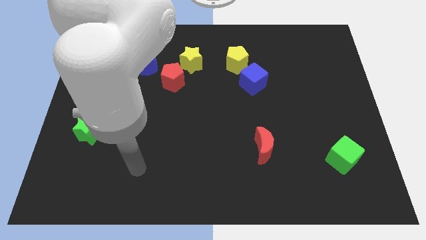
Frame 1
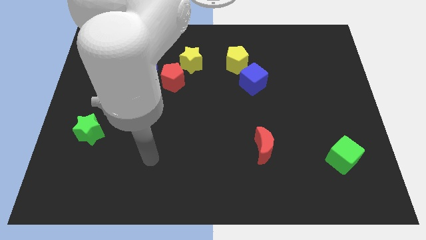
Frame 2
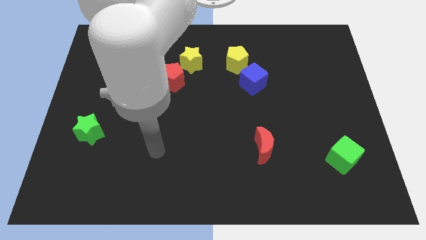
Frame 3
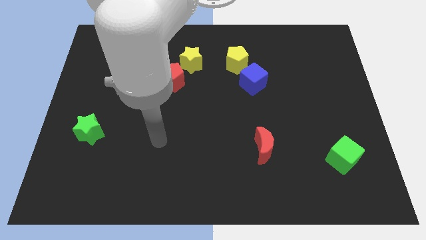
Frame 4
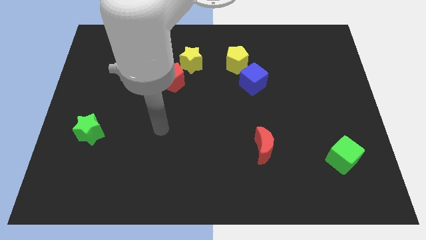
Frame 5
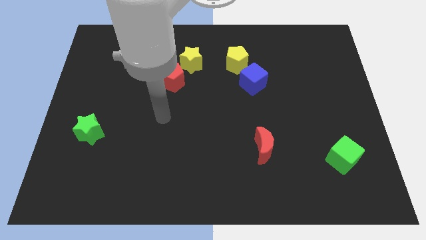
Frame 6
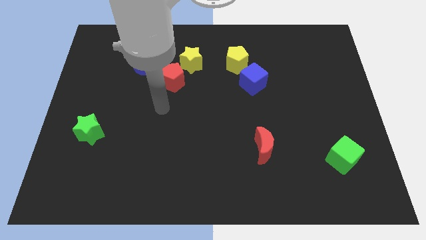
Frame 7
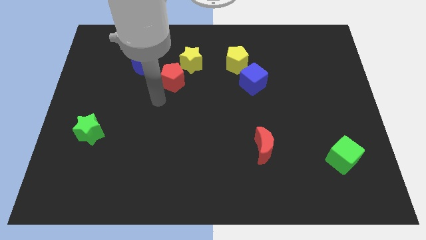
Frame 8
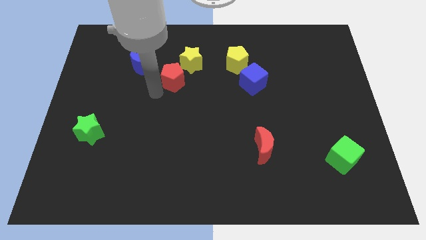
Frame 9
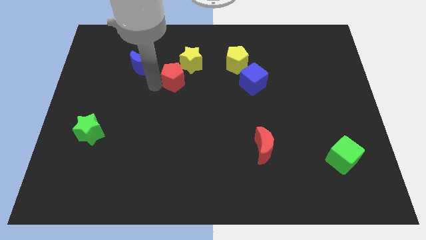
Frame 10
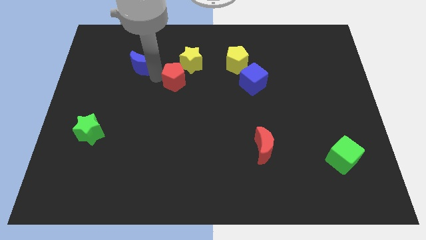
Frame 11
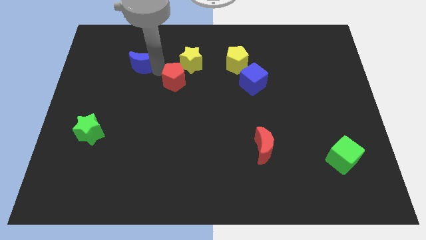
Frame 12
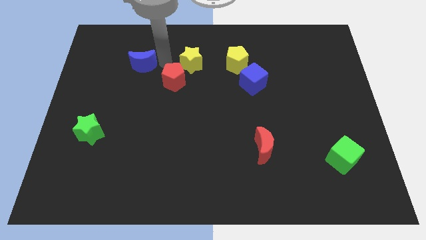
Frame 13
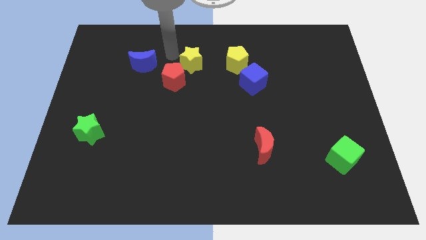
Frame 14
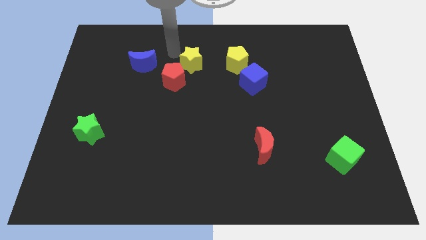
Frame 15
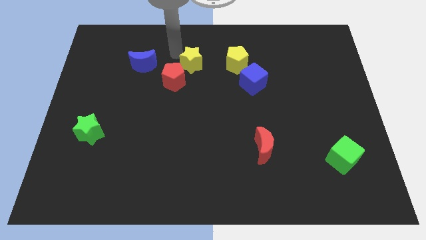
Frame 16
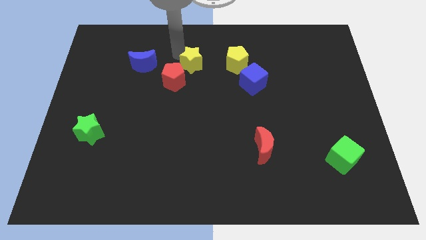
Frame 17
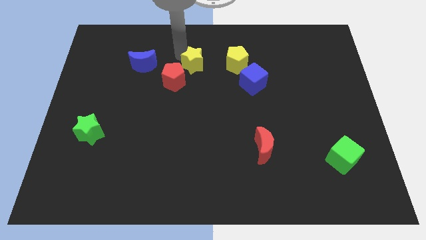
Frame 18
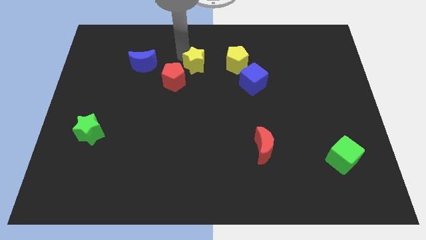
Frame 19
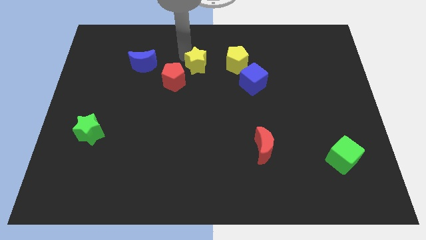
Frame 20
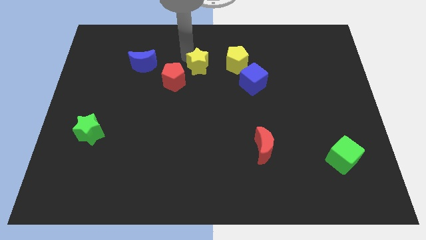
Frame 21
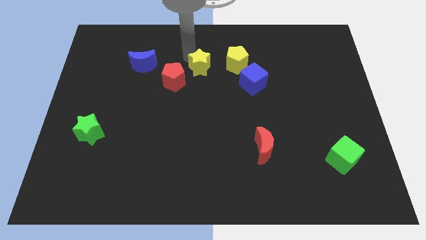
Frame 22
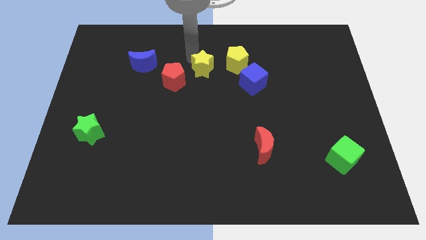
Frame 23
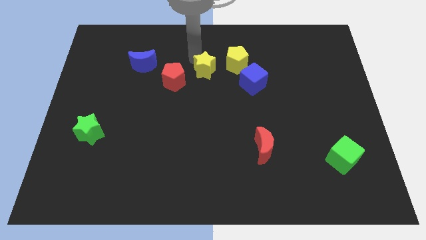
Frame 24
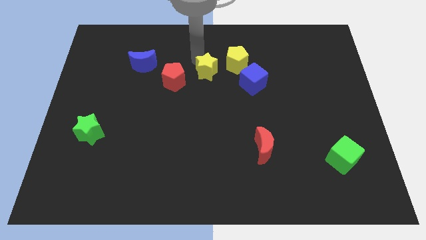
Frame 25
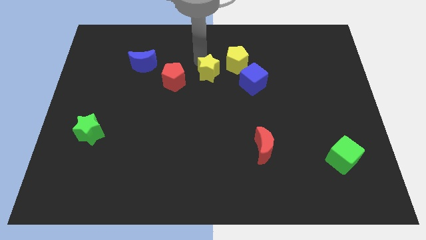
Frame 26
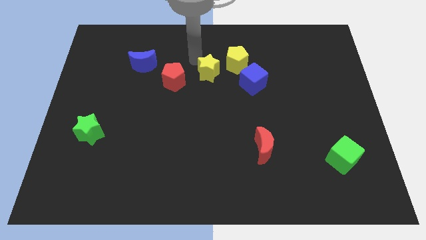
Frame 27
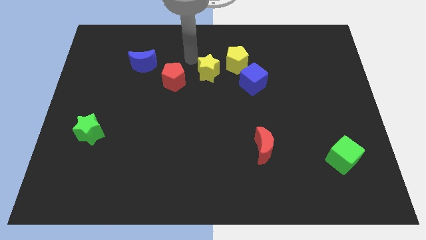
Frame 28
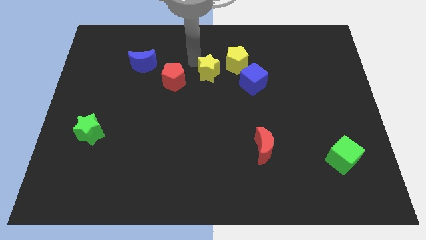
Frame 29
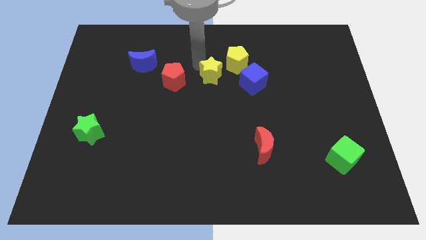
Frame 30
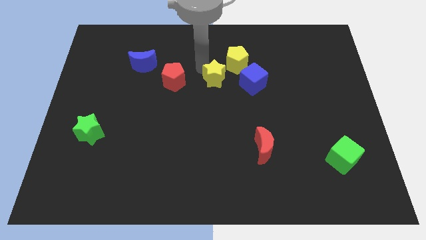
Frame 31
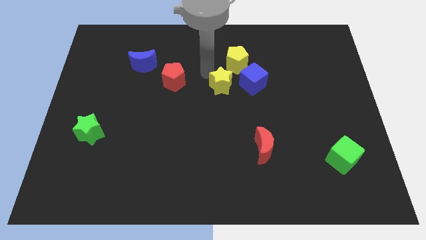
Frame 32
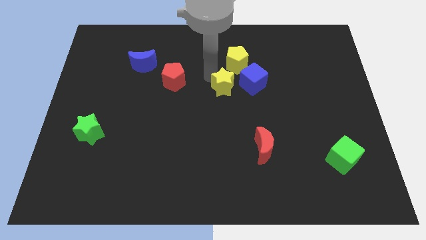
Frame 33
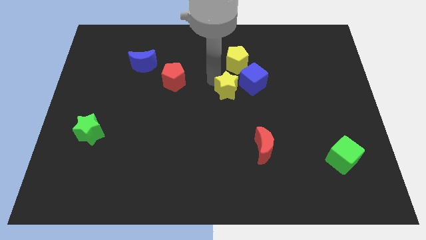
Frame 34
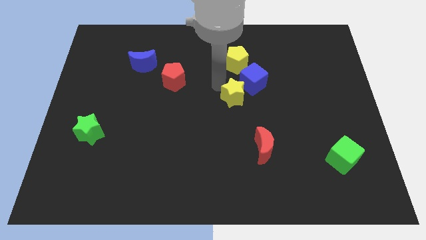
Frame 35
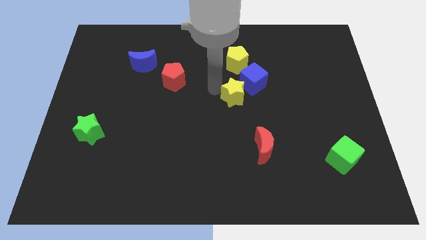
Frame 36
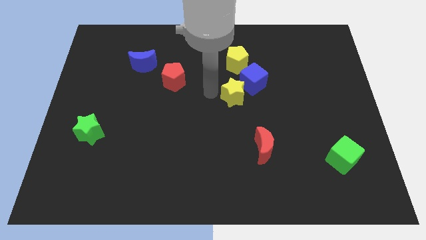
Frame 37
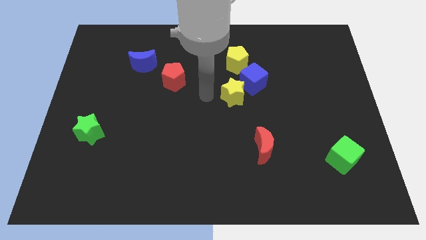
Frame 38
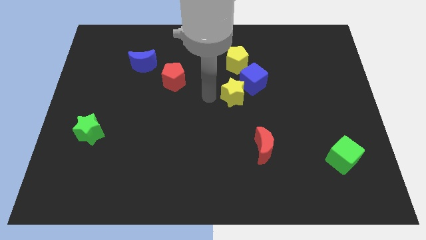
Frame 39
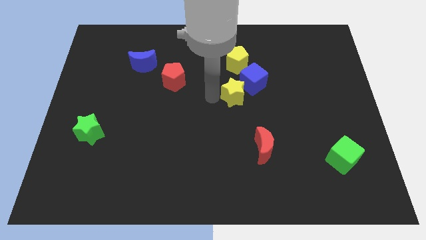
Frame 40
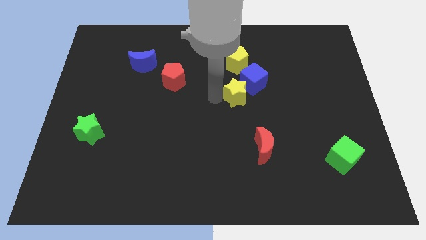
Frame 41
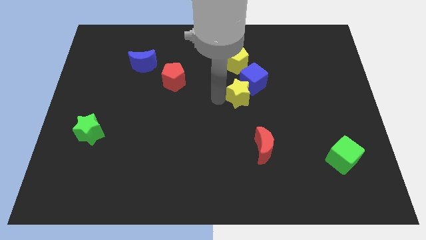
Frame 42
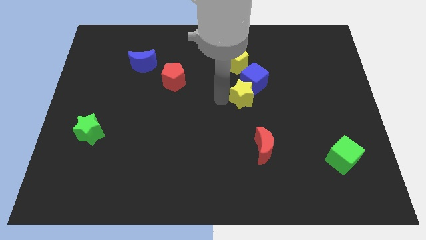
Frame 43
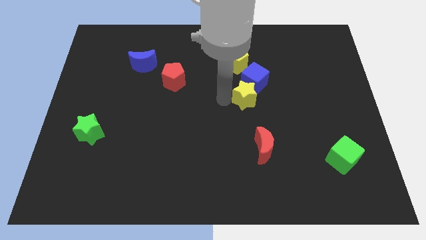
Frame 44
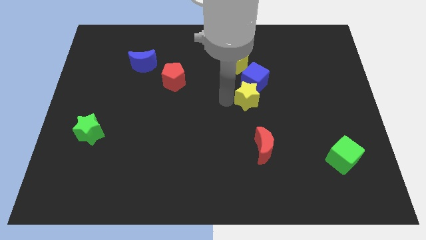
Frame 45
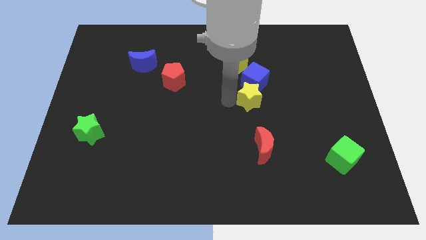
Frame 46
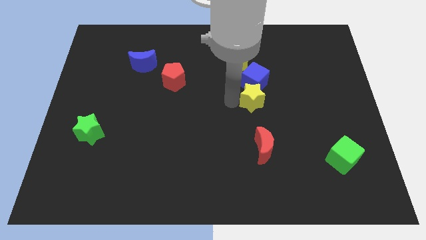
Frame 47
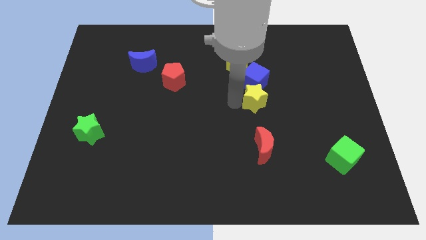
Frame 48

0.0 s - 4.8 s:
slide the yellow star to the bottom right side of the blue cube

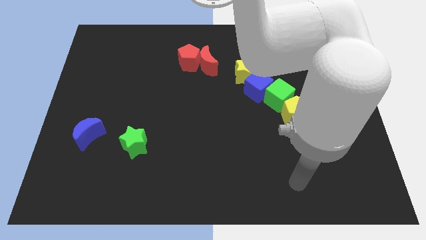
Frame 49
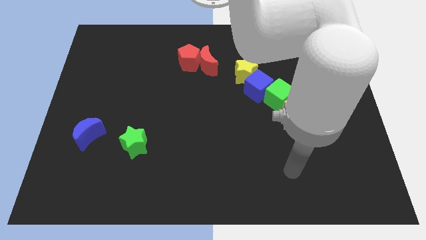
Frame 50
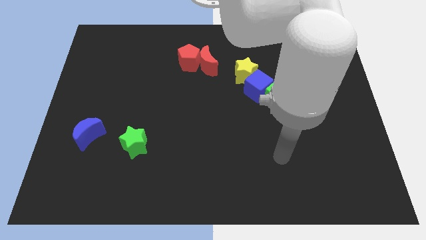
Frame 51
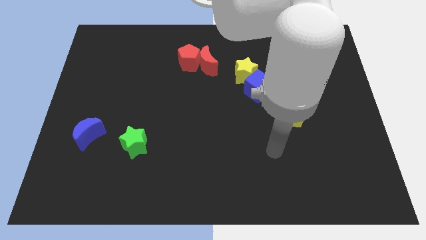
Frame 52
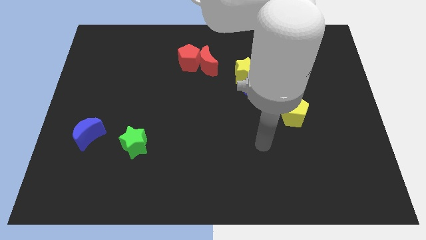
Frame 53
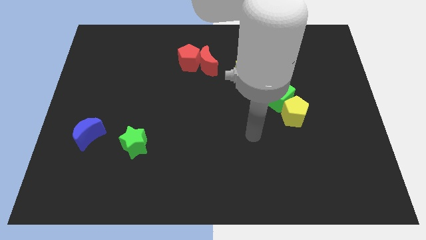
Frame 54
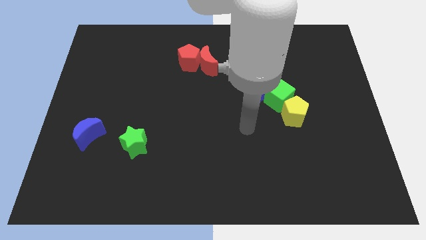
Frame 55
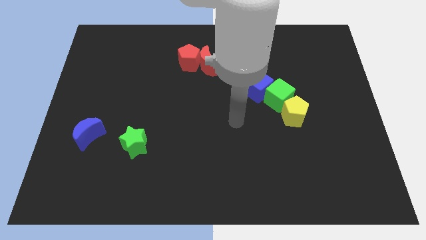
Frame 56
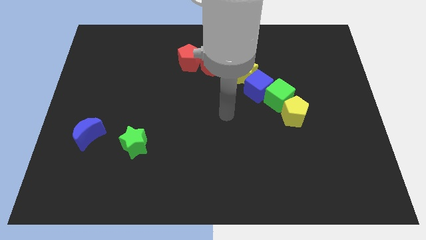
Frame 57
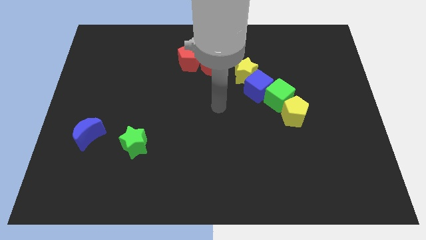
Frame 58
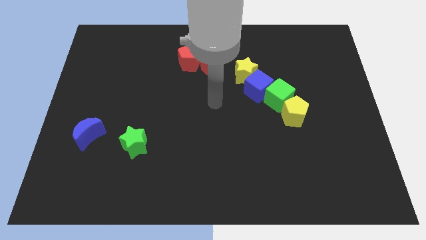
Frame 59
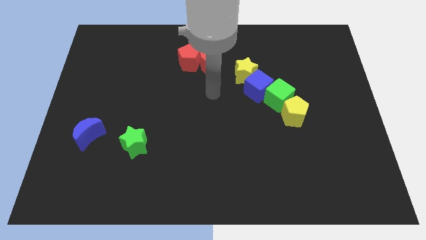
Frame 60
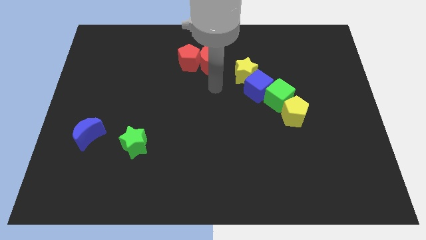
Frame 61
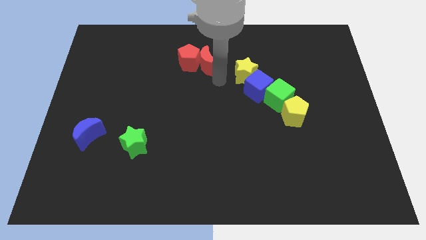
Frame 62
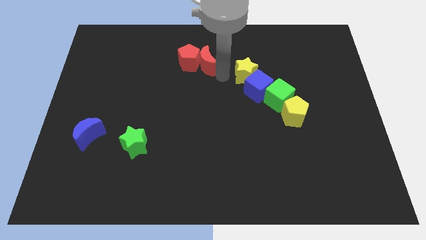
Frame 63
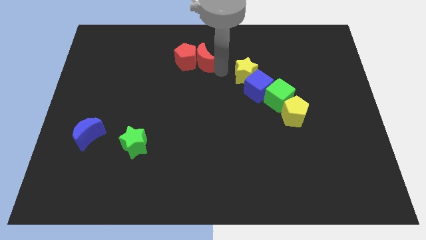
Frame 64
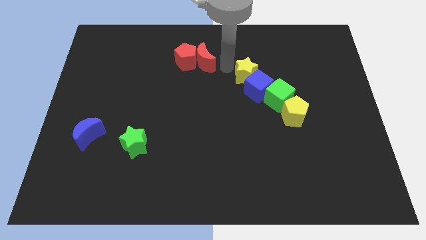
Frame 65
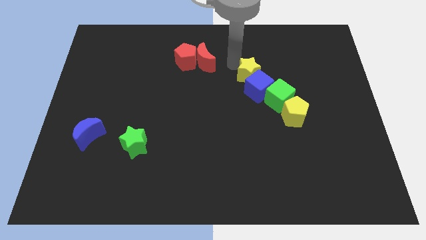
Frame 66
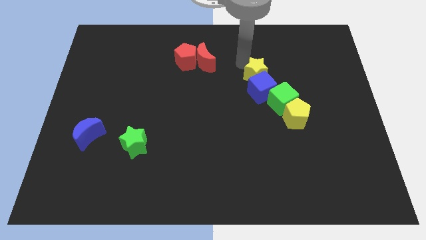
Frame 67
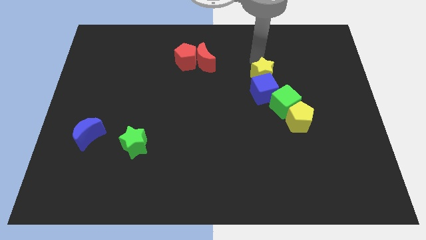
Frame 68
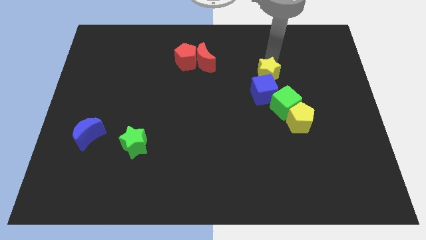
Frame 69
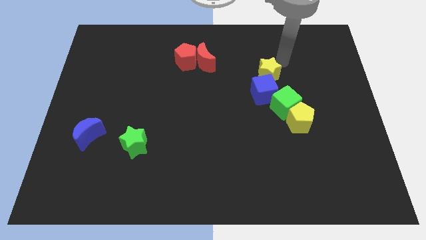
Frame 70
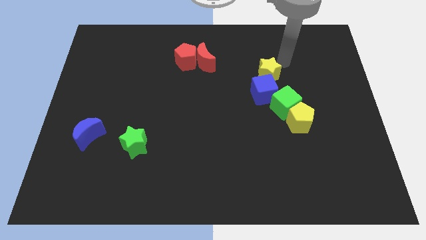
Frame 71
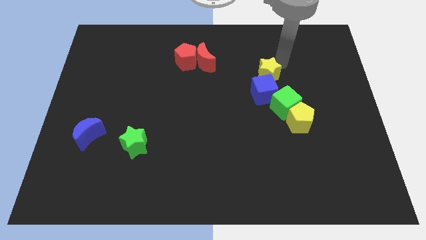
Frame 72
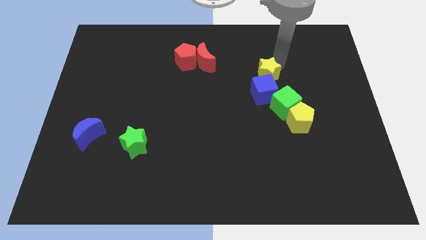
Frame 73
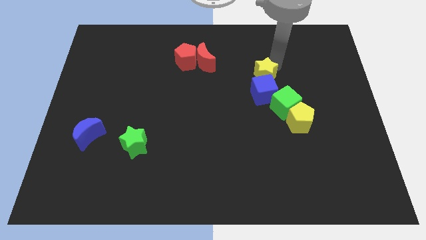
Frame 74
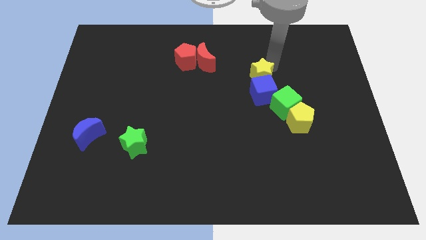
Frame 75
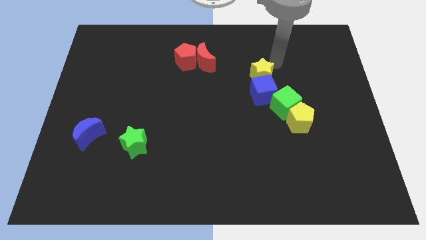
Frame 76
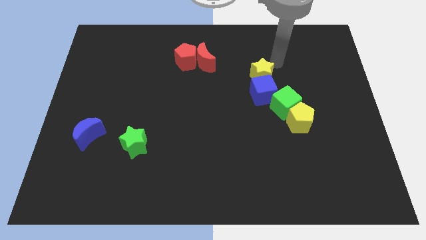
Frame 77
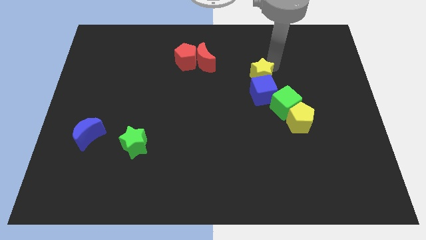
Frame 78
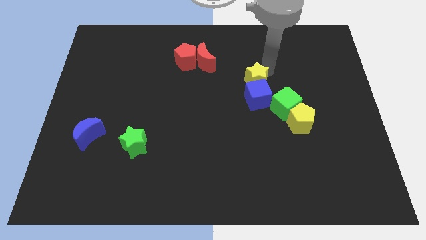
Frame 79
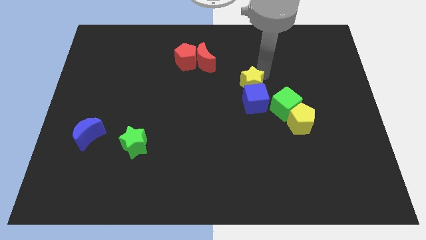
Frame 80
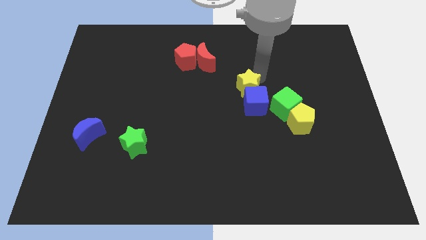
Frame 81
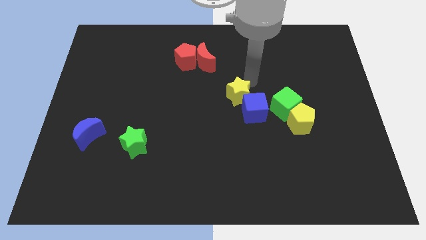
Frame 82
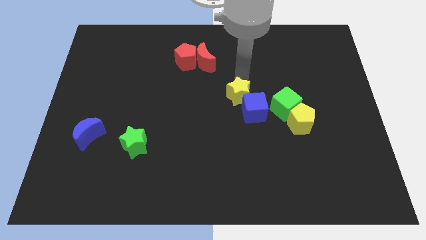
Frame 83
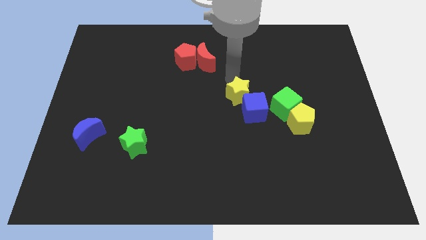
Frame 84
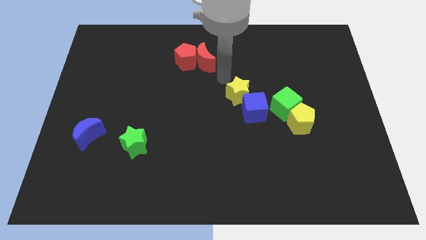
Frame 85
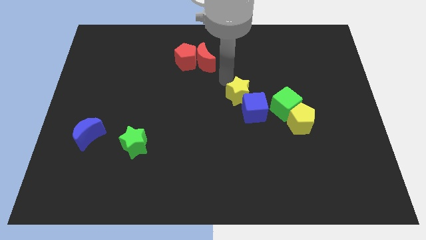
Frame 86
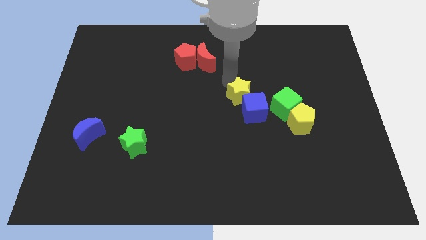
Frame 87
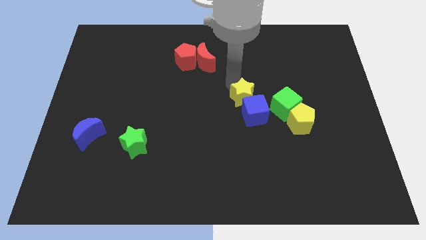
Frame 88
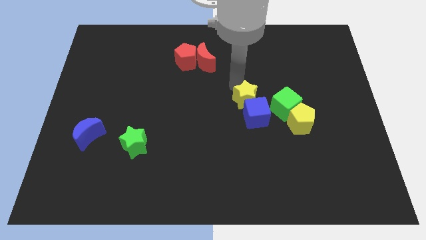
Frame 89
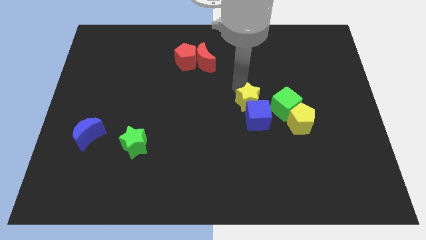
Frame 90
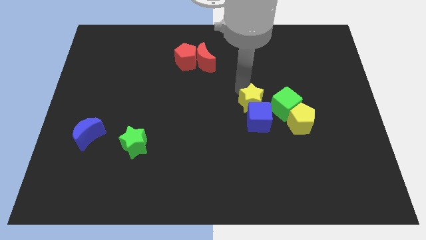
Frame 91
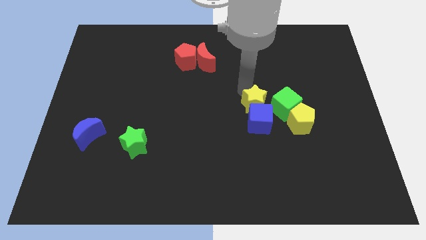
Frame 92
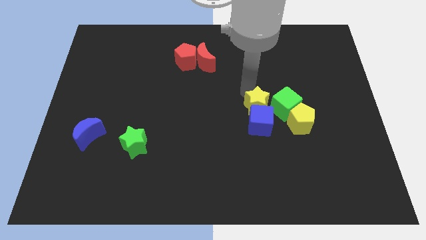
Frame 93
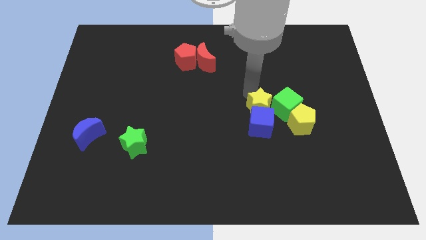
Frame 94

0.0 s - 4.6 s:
slide the yellow star to the bottom left side of the green cube
